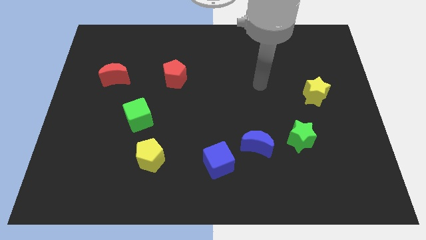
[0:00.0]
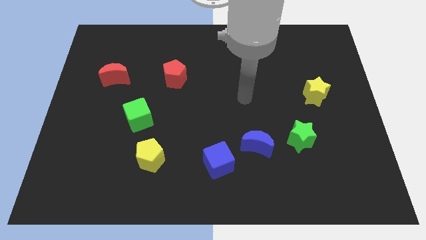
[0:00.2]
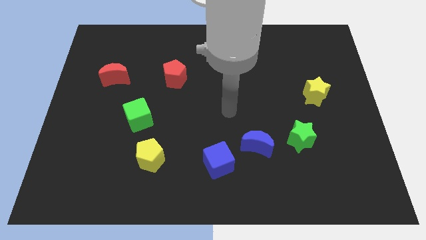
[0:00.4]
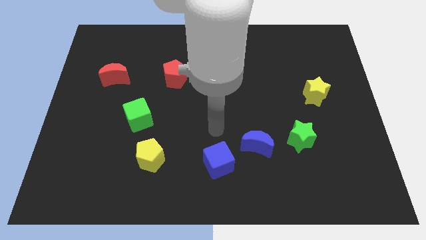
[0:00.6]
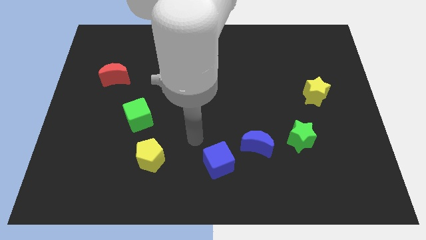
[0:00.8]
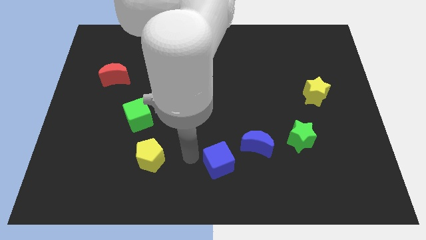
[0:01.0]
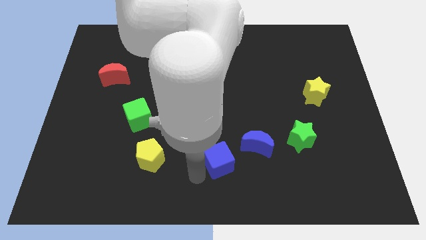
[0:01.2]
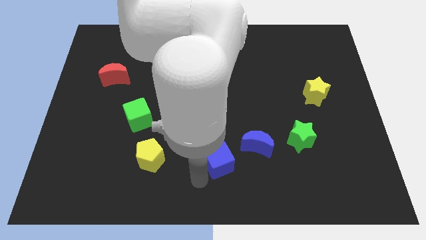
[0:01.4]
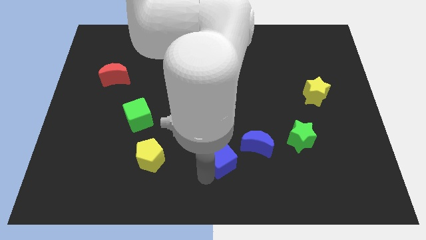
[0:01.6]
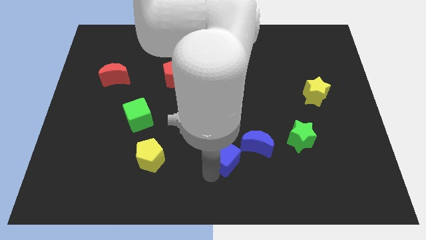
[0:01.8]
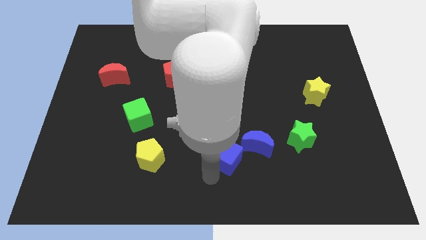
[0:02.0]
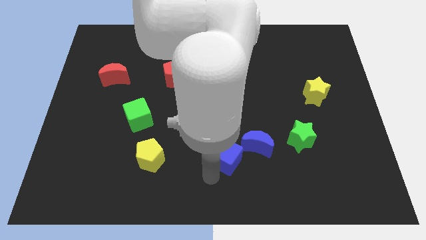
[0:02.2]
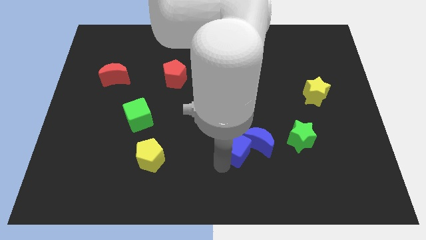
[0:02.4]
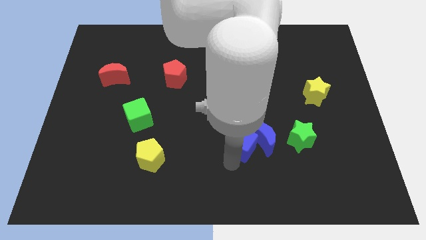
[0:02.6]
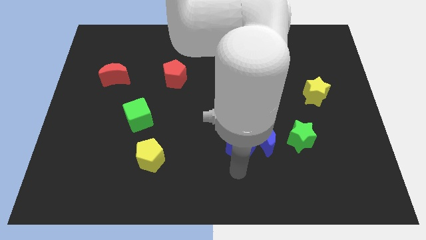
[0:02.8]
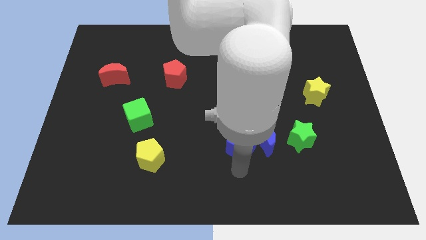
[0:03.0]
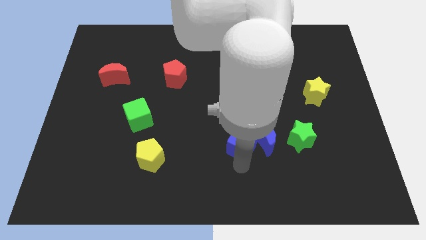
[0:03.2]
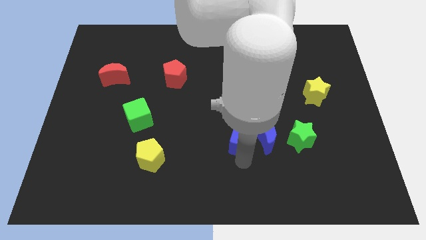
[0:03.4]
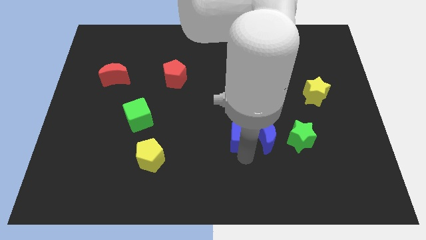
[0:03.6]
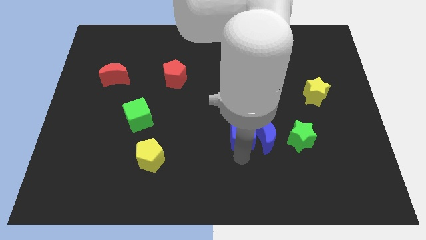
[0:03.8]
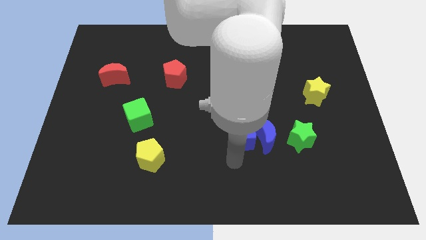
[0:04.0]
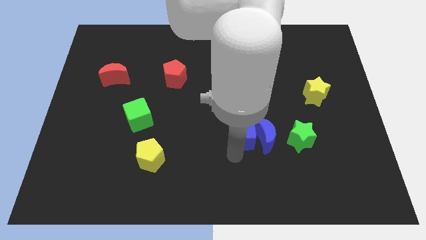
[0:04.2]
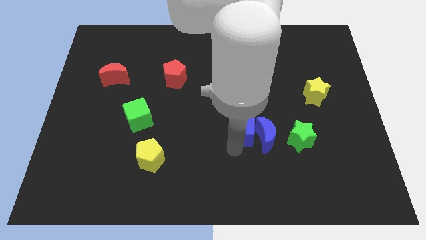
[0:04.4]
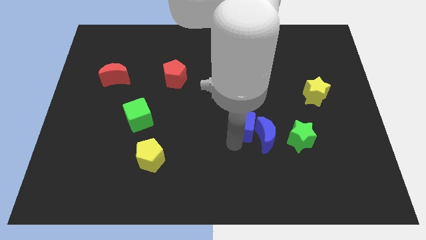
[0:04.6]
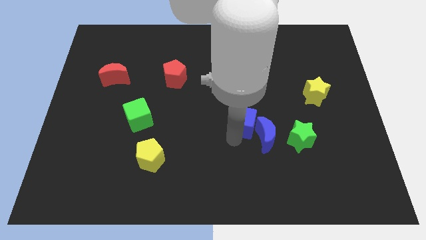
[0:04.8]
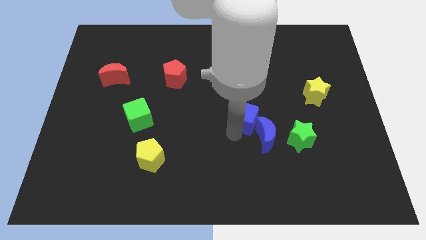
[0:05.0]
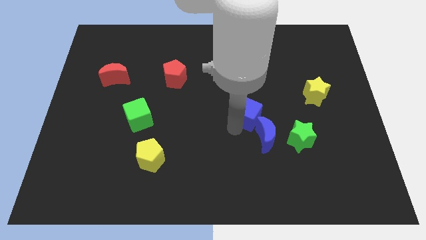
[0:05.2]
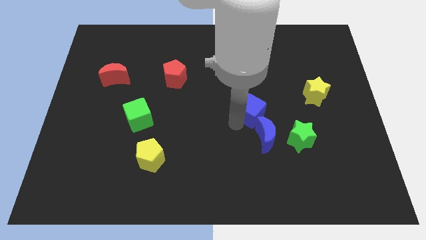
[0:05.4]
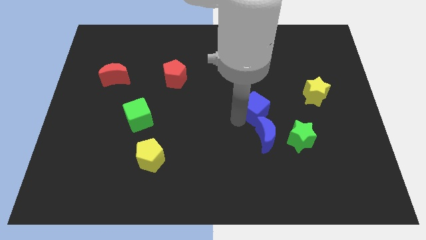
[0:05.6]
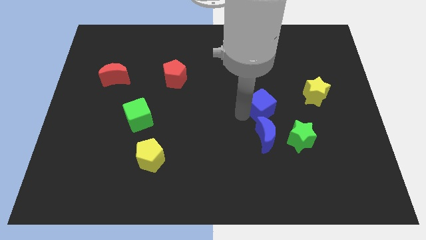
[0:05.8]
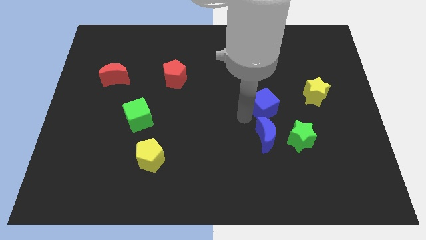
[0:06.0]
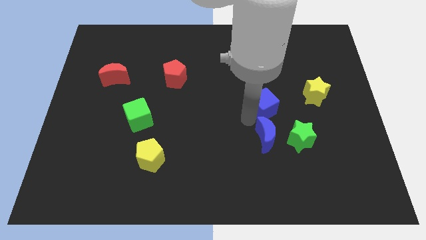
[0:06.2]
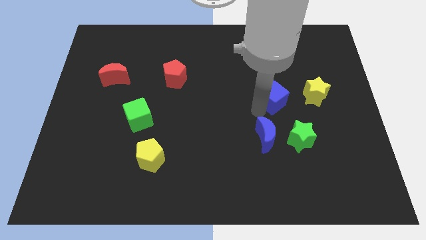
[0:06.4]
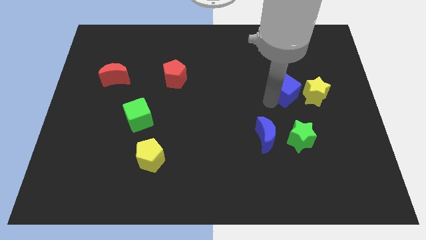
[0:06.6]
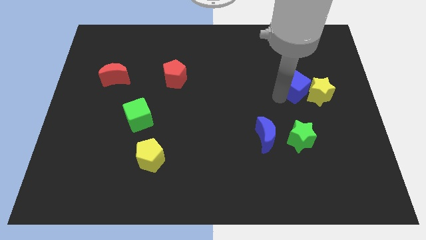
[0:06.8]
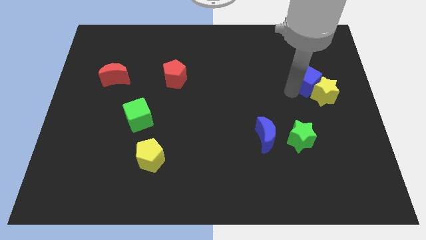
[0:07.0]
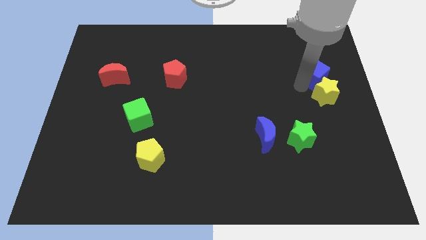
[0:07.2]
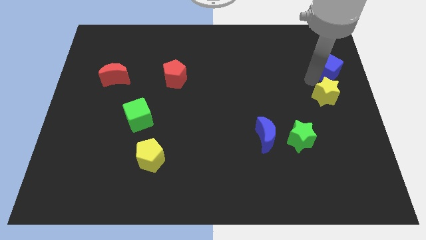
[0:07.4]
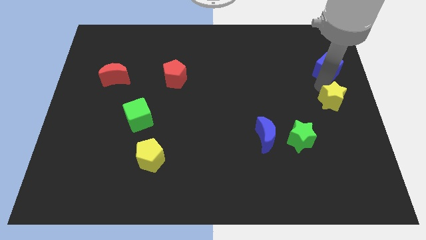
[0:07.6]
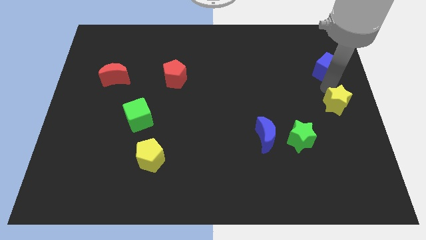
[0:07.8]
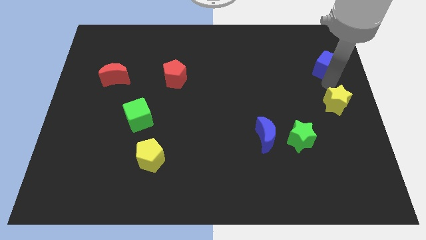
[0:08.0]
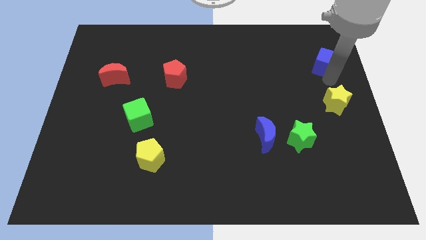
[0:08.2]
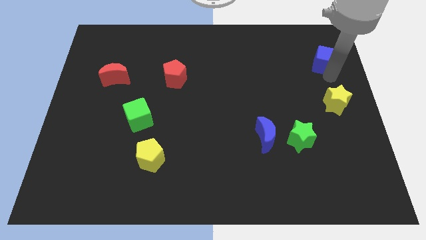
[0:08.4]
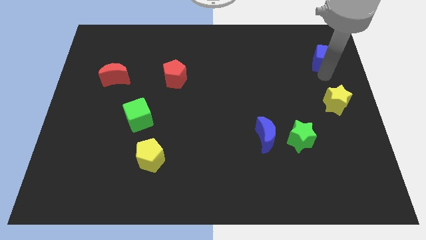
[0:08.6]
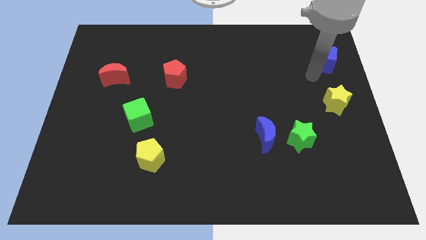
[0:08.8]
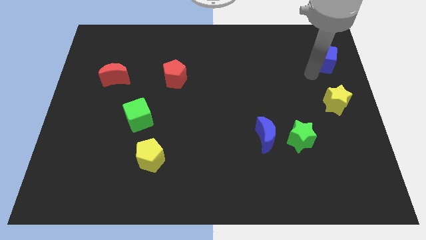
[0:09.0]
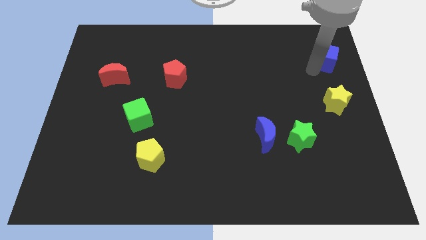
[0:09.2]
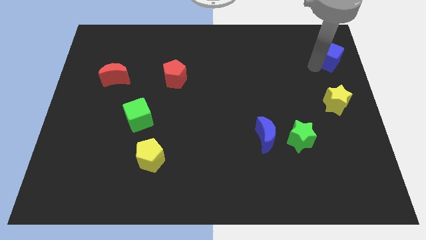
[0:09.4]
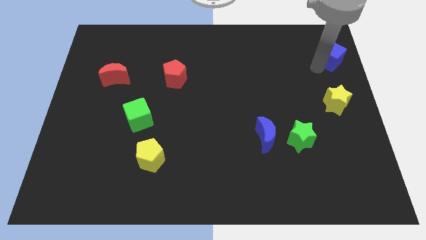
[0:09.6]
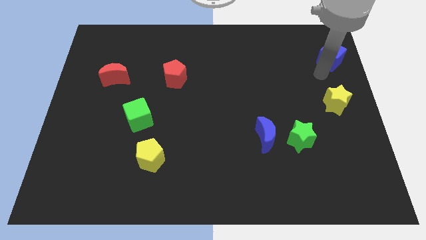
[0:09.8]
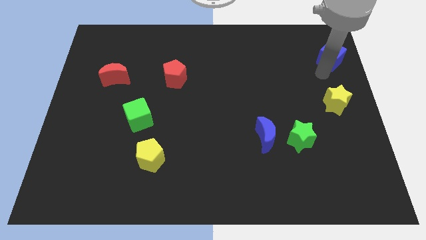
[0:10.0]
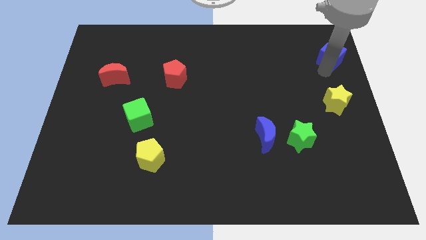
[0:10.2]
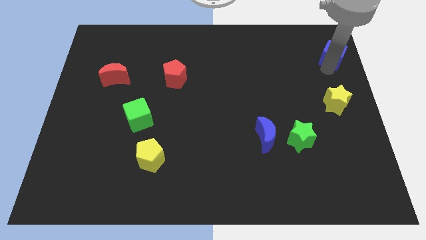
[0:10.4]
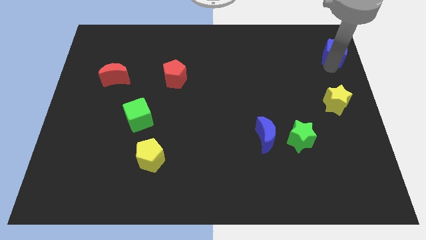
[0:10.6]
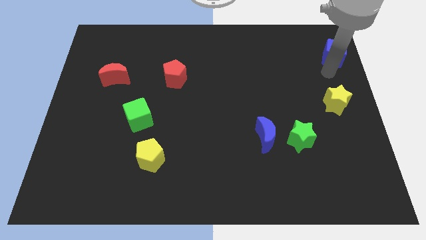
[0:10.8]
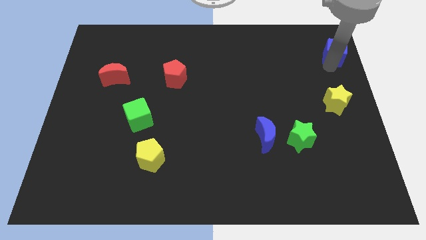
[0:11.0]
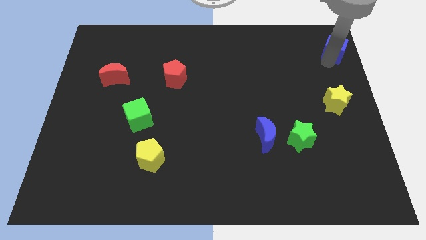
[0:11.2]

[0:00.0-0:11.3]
put the blue cube to the upper right corner

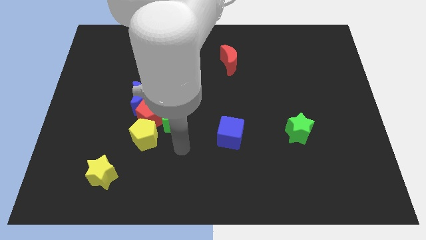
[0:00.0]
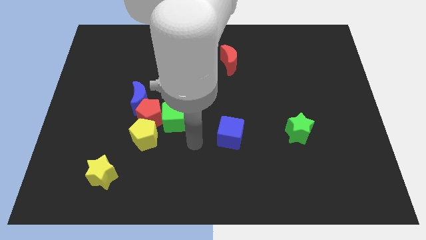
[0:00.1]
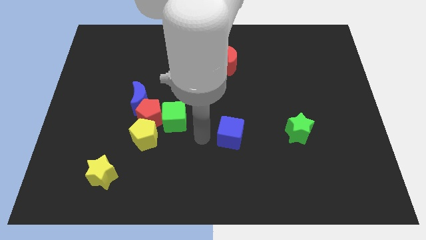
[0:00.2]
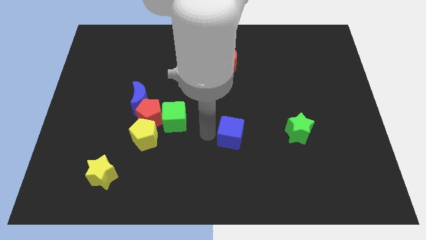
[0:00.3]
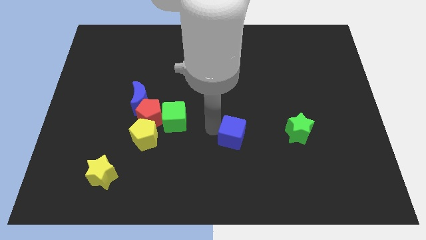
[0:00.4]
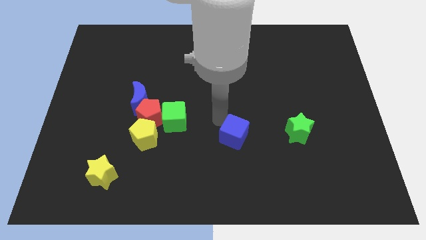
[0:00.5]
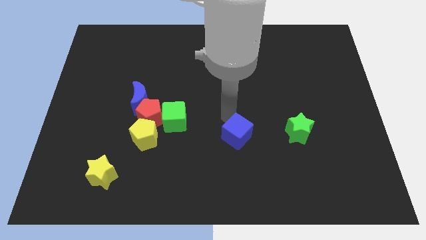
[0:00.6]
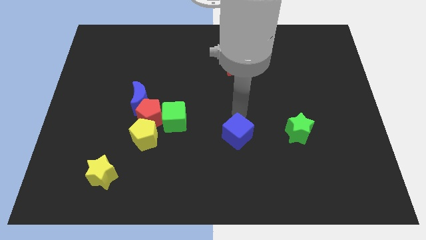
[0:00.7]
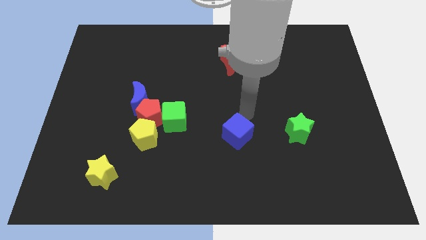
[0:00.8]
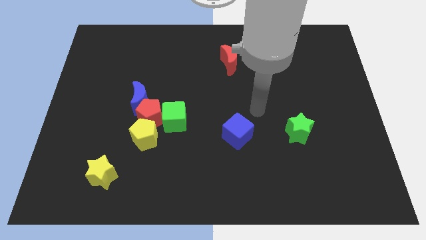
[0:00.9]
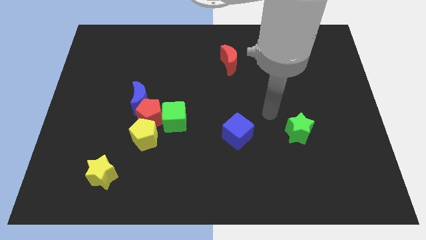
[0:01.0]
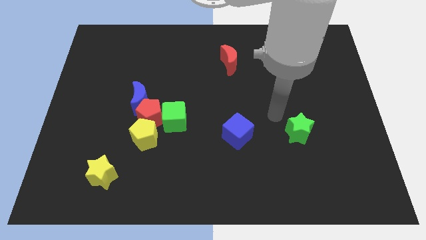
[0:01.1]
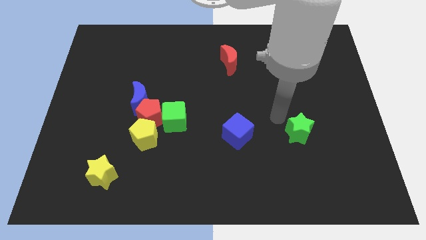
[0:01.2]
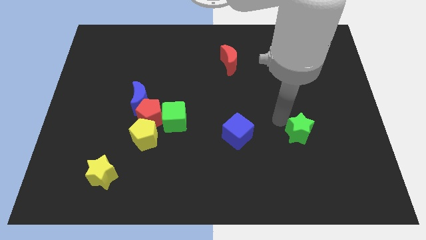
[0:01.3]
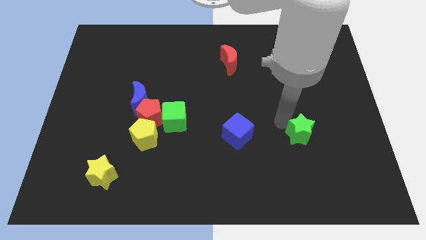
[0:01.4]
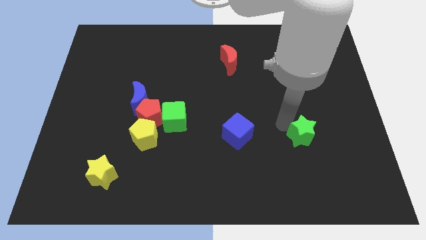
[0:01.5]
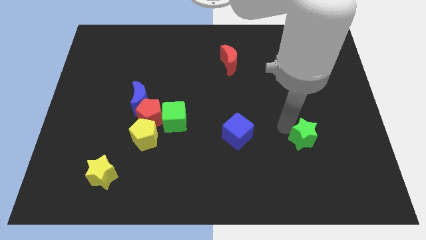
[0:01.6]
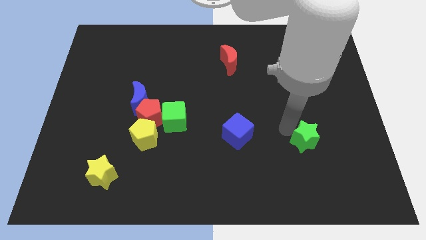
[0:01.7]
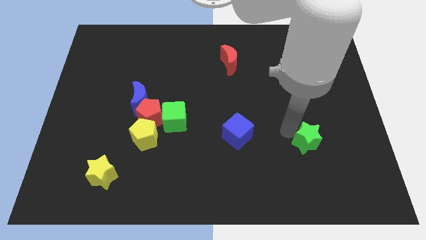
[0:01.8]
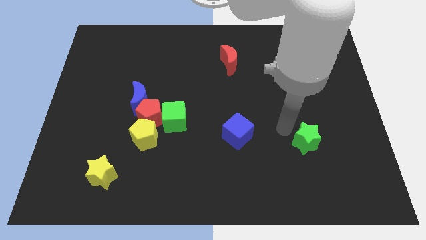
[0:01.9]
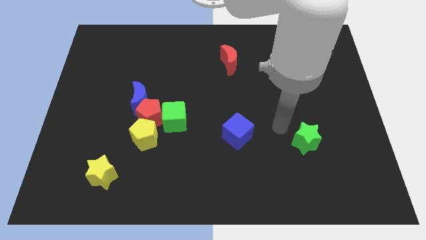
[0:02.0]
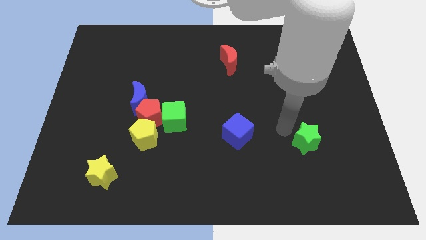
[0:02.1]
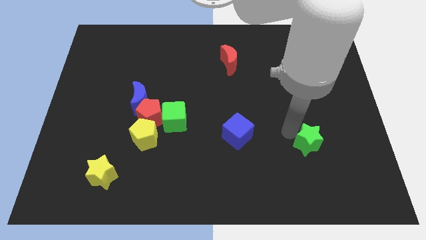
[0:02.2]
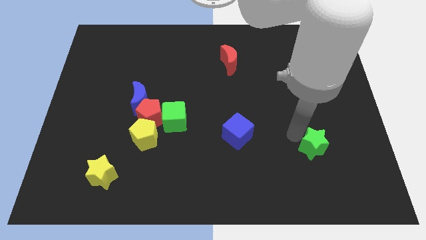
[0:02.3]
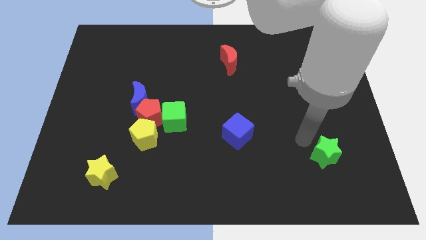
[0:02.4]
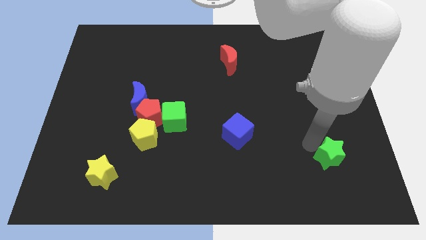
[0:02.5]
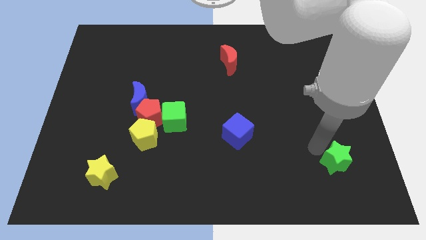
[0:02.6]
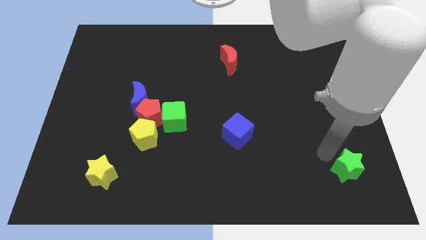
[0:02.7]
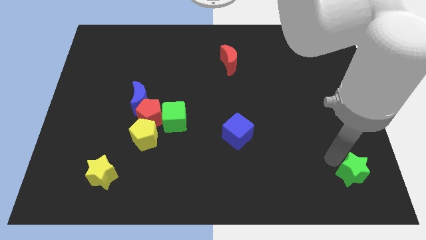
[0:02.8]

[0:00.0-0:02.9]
move the green star to the lower right corner
